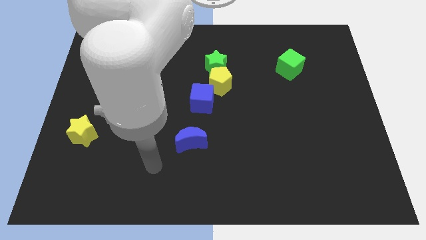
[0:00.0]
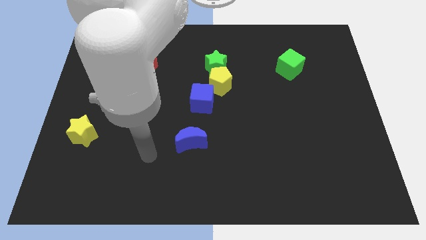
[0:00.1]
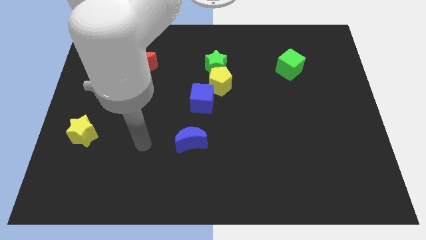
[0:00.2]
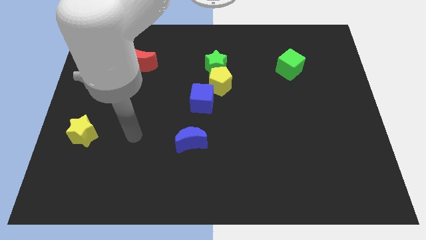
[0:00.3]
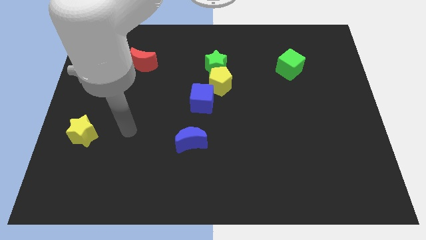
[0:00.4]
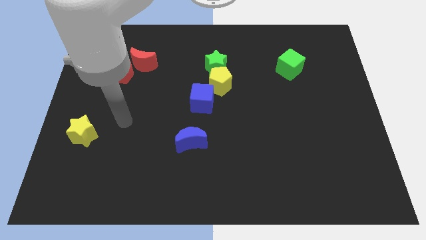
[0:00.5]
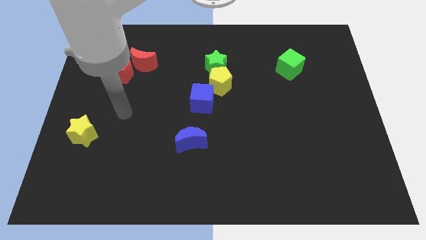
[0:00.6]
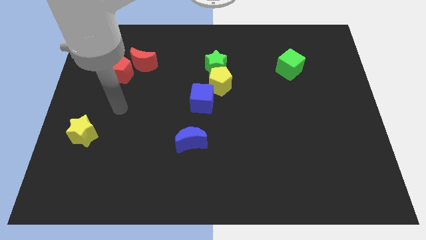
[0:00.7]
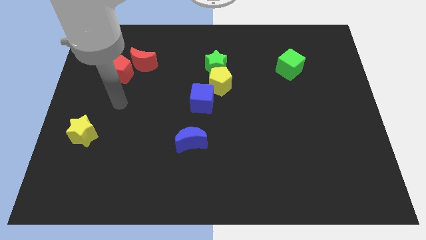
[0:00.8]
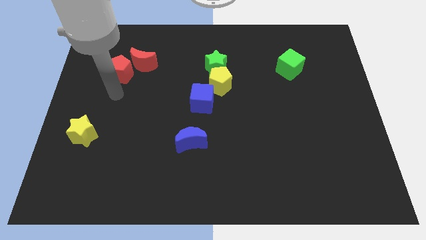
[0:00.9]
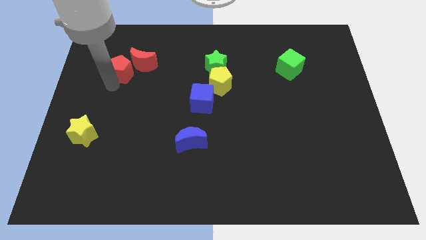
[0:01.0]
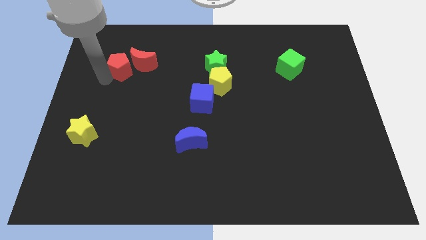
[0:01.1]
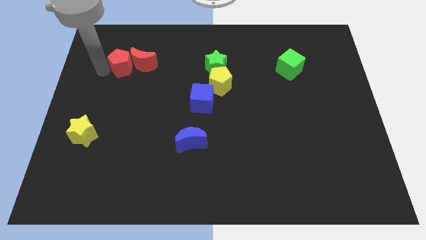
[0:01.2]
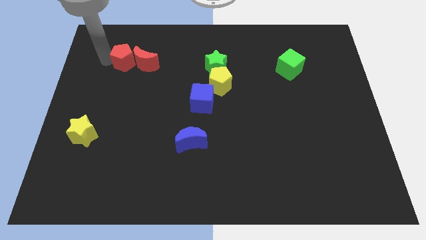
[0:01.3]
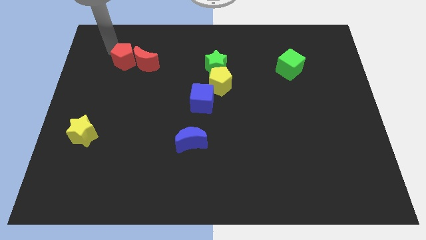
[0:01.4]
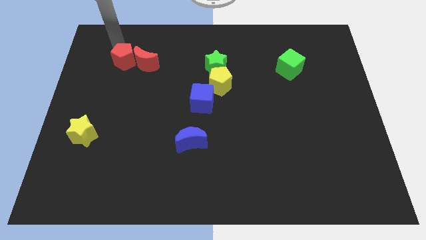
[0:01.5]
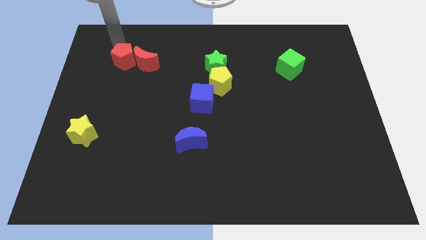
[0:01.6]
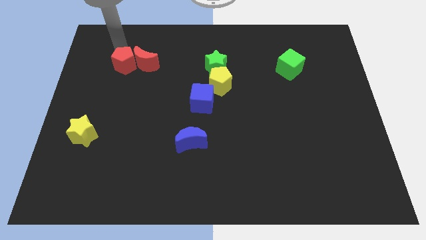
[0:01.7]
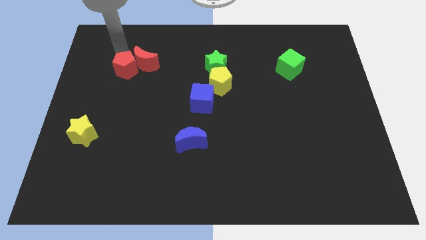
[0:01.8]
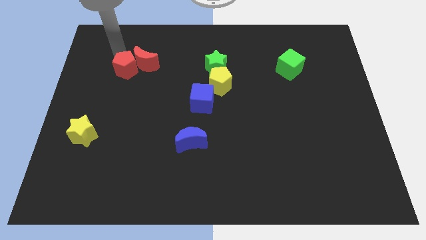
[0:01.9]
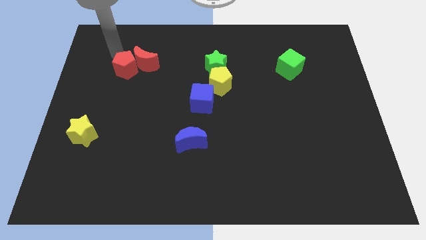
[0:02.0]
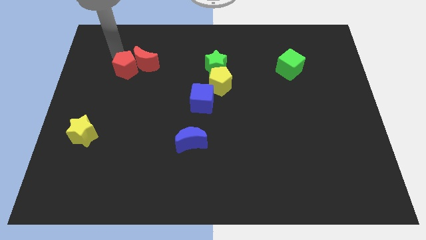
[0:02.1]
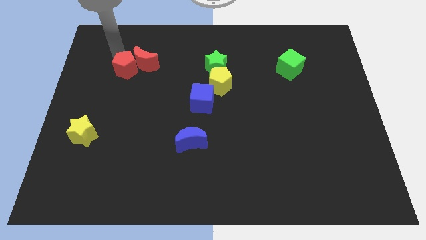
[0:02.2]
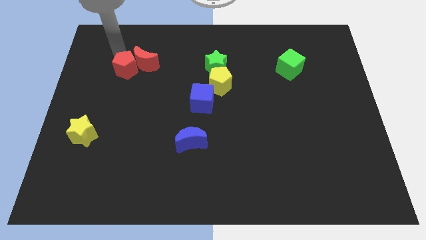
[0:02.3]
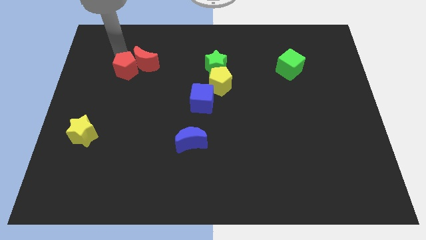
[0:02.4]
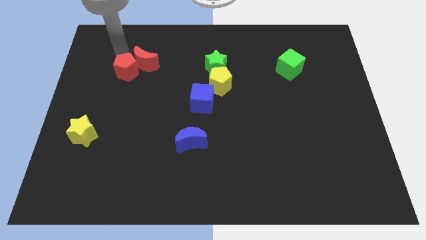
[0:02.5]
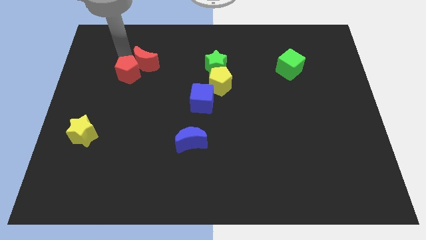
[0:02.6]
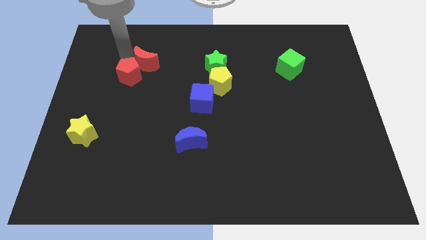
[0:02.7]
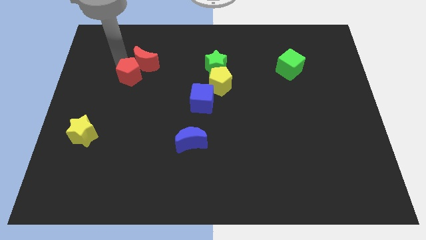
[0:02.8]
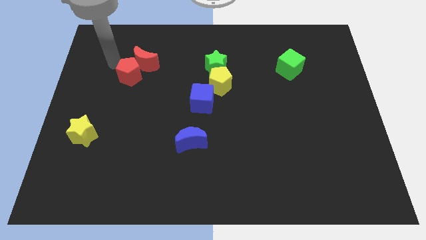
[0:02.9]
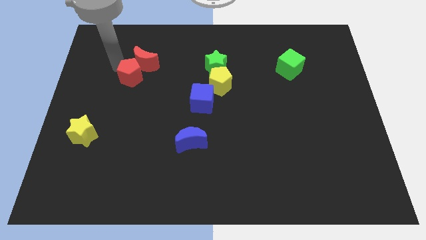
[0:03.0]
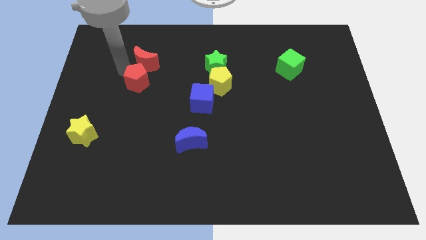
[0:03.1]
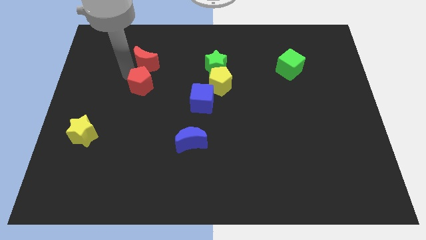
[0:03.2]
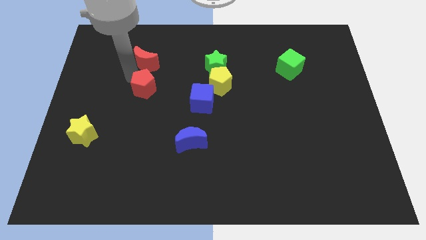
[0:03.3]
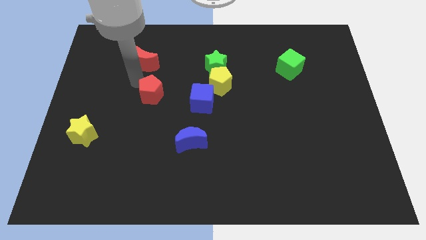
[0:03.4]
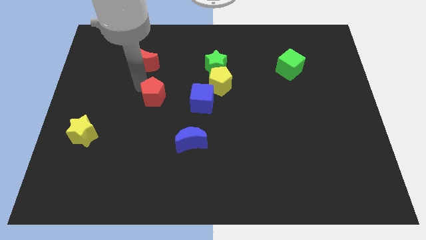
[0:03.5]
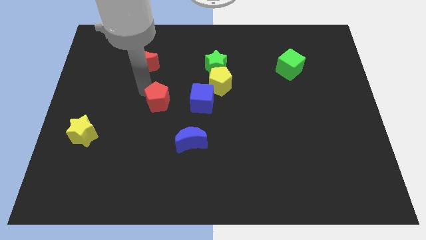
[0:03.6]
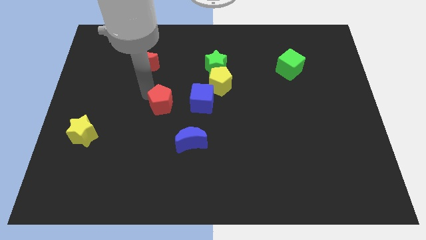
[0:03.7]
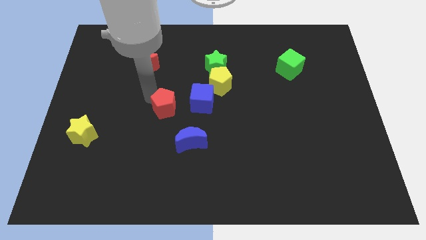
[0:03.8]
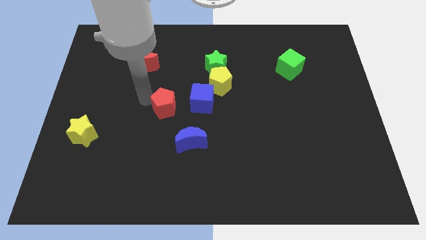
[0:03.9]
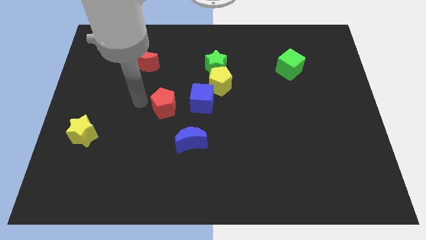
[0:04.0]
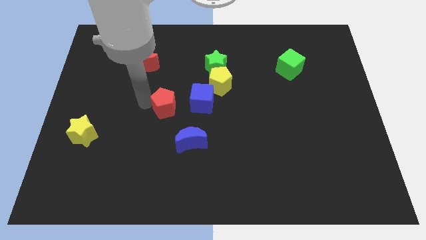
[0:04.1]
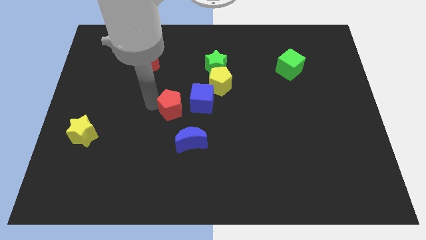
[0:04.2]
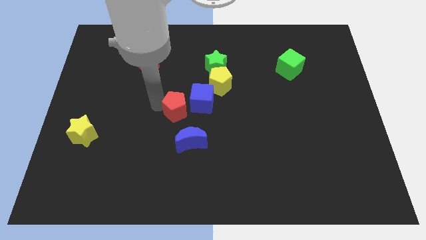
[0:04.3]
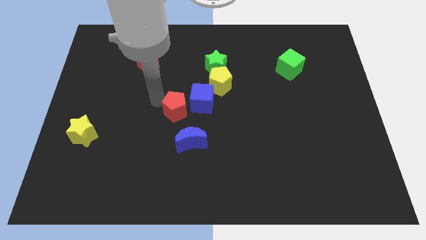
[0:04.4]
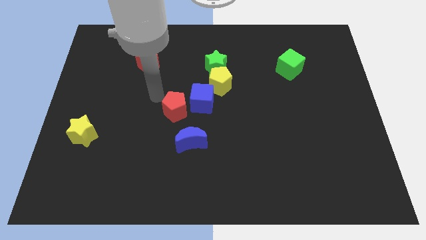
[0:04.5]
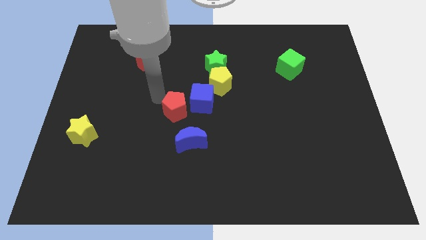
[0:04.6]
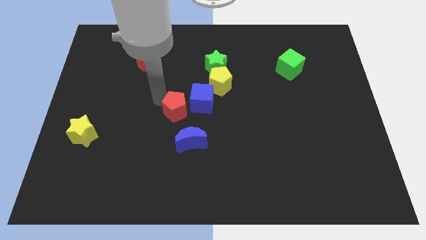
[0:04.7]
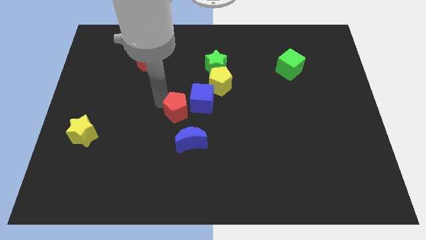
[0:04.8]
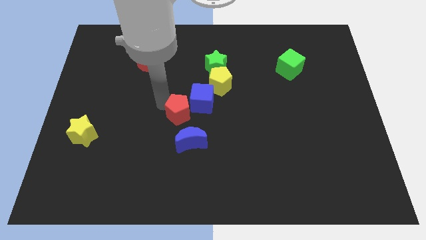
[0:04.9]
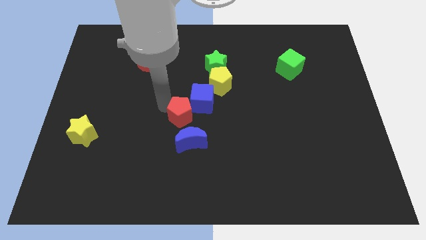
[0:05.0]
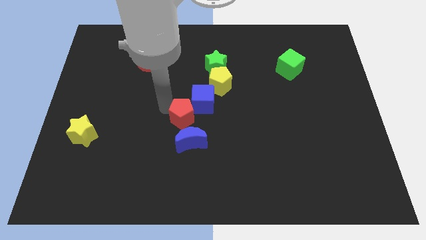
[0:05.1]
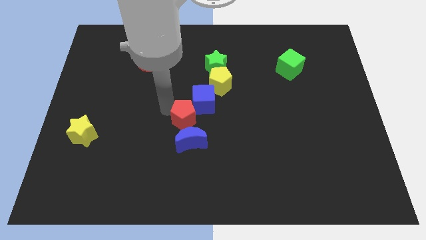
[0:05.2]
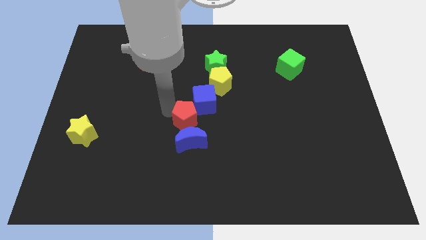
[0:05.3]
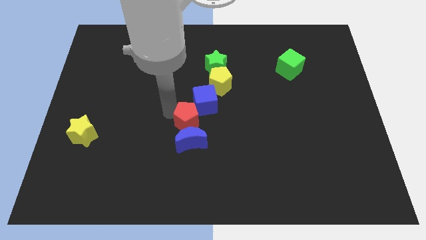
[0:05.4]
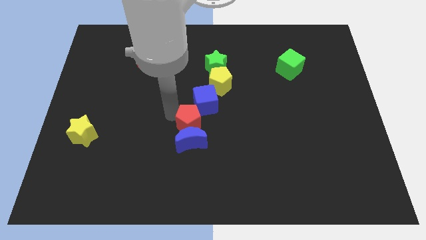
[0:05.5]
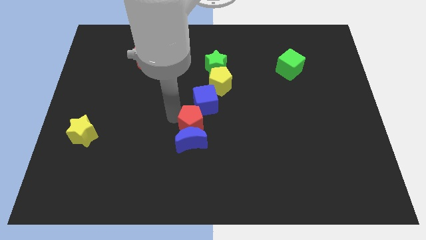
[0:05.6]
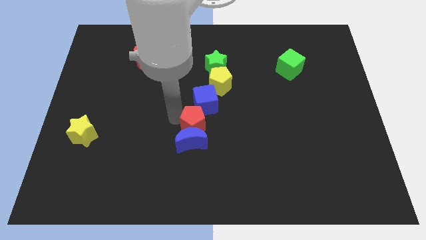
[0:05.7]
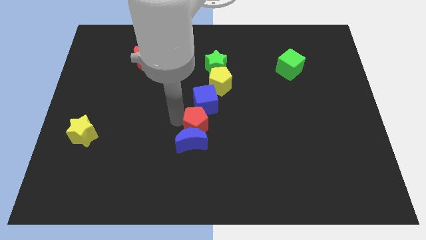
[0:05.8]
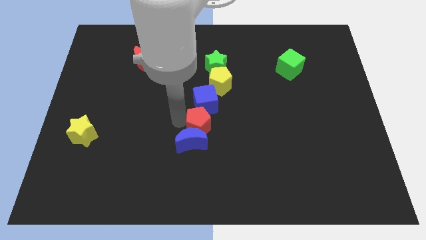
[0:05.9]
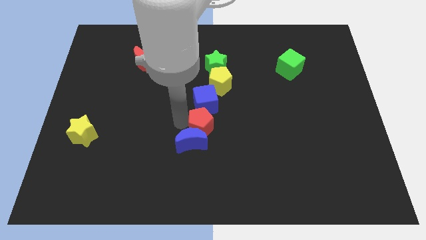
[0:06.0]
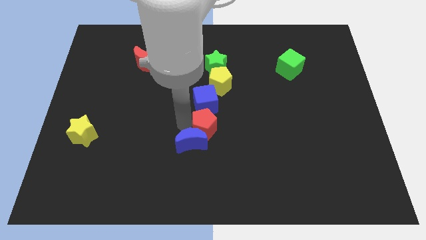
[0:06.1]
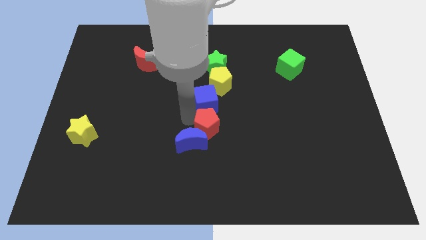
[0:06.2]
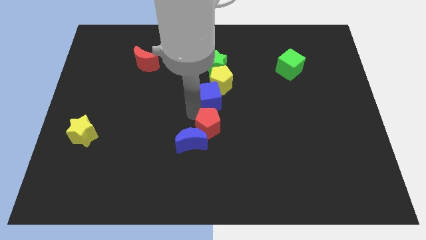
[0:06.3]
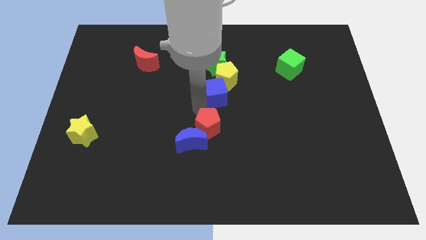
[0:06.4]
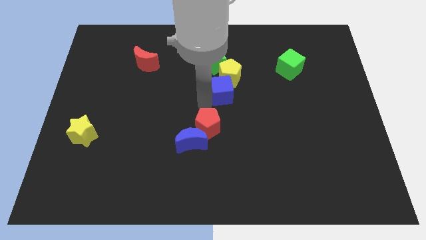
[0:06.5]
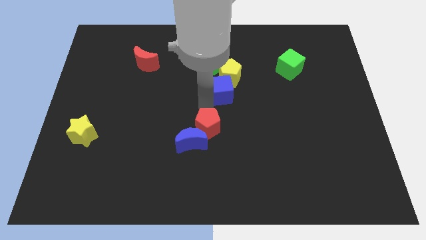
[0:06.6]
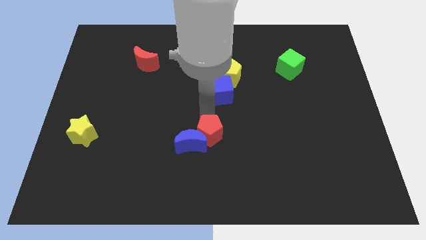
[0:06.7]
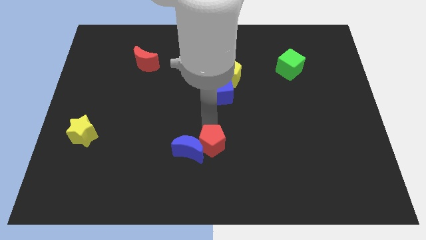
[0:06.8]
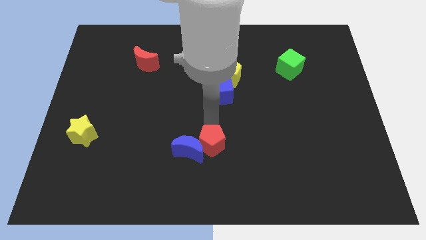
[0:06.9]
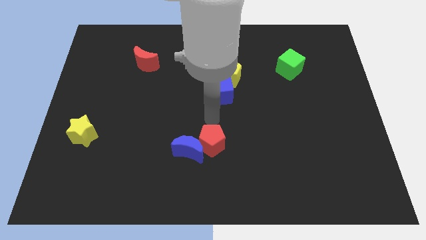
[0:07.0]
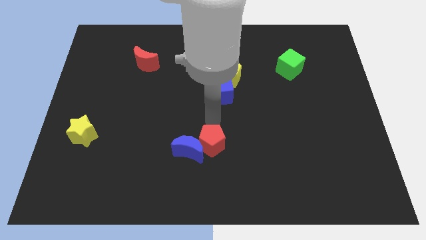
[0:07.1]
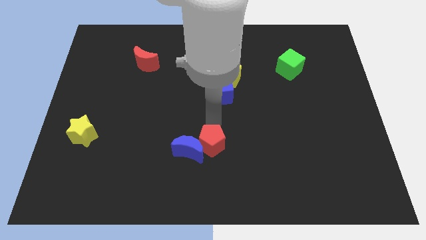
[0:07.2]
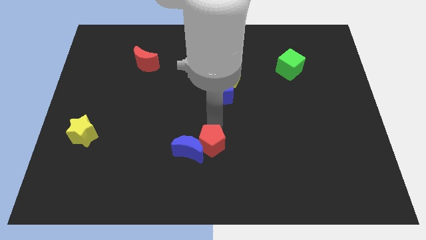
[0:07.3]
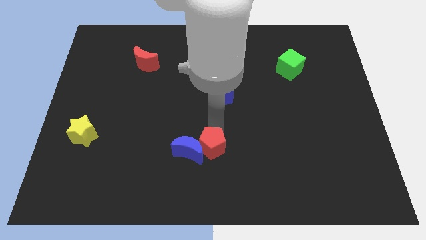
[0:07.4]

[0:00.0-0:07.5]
move the red pentagon to the bottom right of the blue moon
